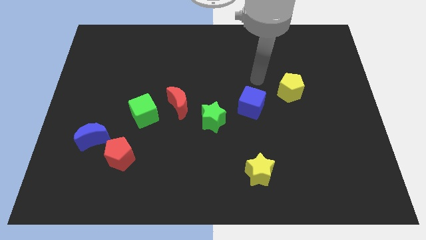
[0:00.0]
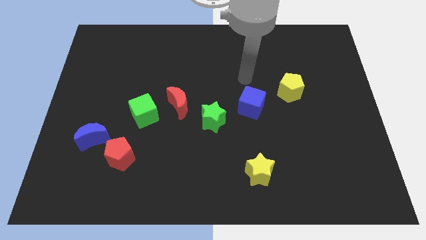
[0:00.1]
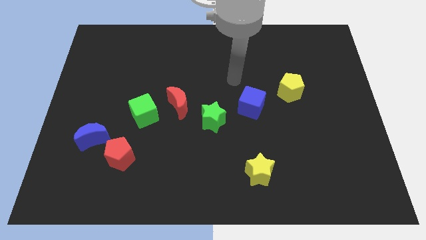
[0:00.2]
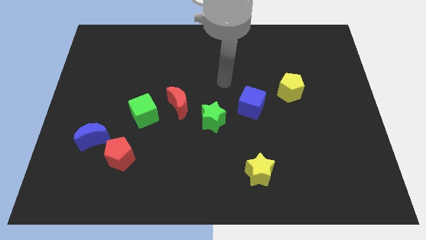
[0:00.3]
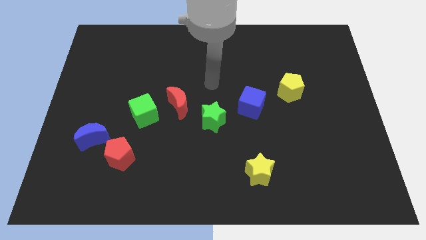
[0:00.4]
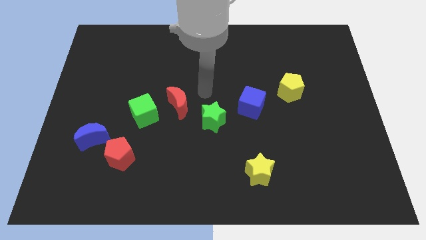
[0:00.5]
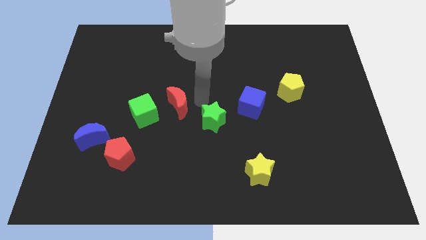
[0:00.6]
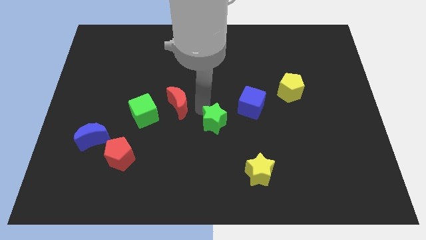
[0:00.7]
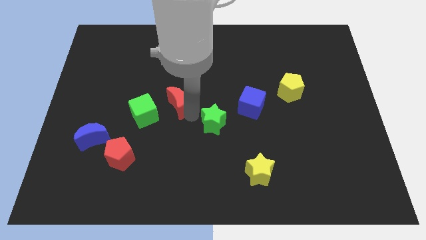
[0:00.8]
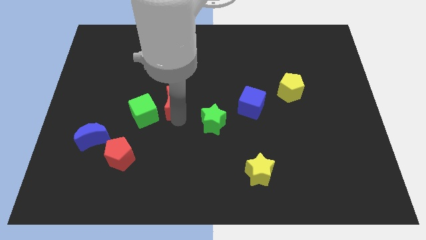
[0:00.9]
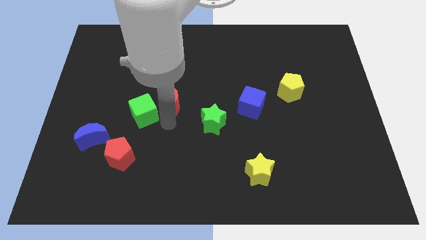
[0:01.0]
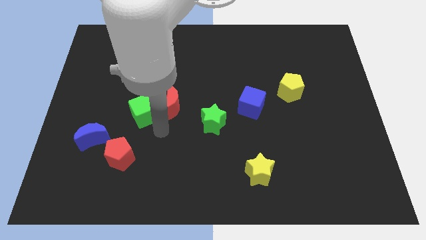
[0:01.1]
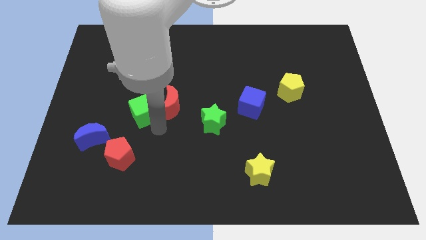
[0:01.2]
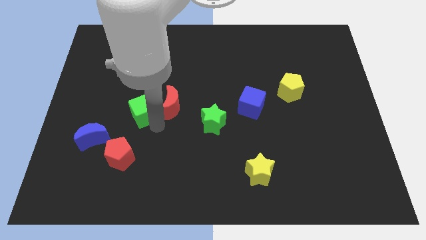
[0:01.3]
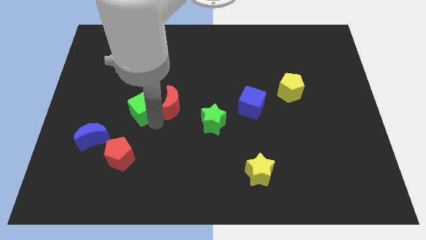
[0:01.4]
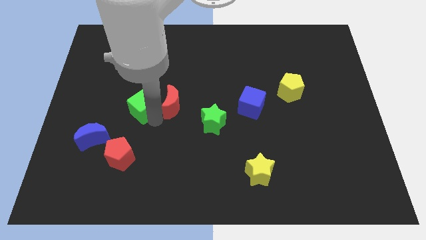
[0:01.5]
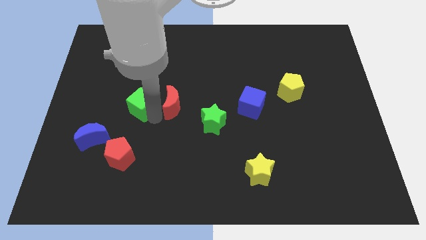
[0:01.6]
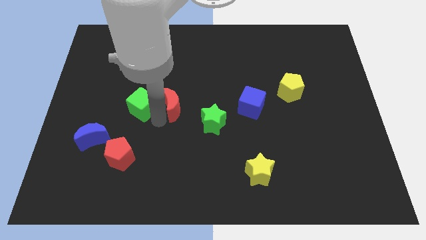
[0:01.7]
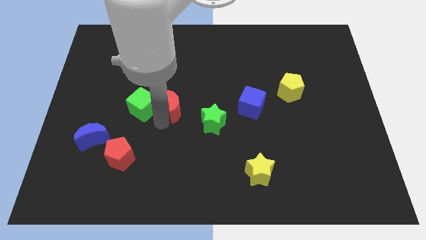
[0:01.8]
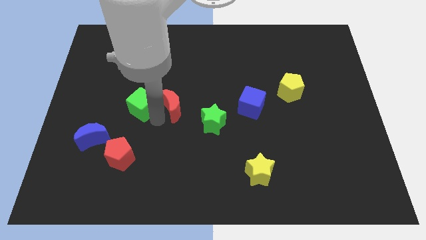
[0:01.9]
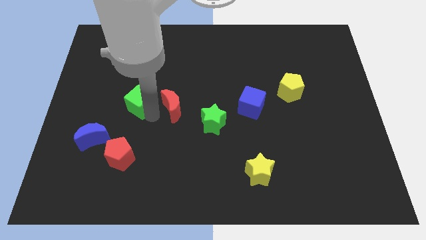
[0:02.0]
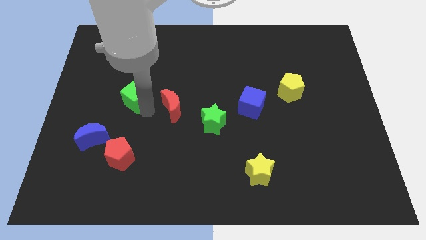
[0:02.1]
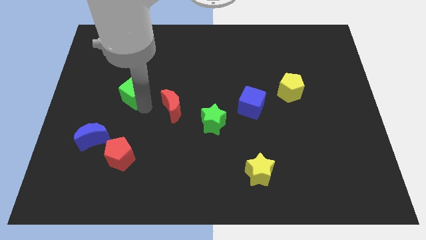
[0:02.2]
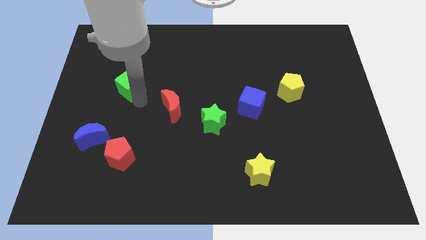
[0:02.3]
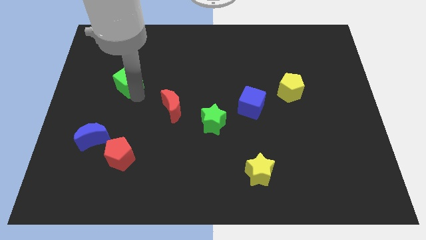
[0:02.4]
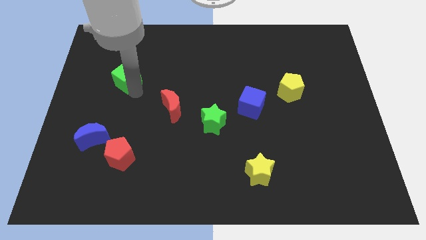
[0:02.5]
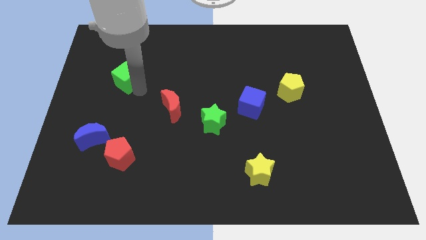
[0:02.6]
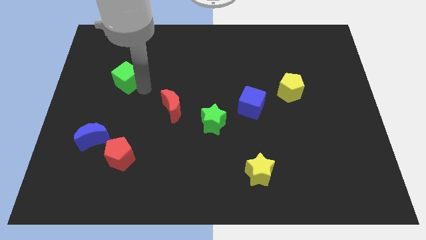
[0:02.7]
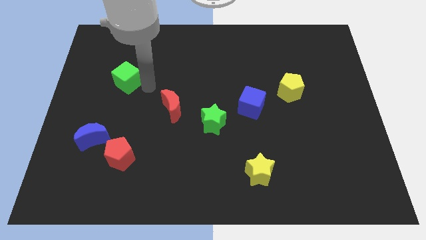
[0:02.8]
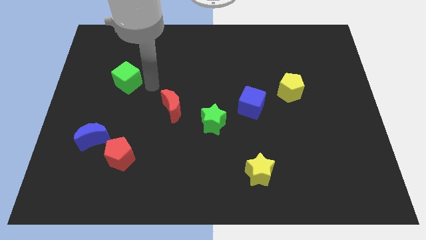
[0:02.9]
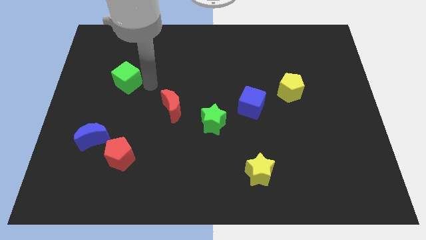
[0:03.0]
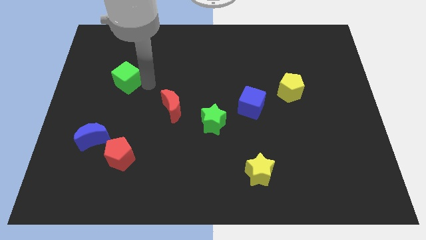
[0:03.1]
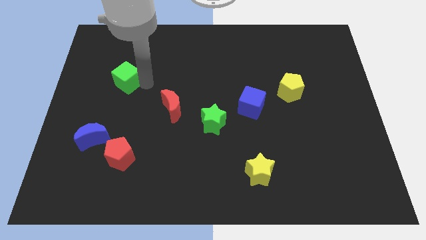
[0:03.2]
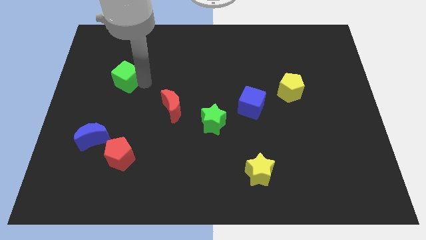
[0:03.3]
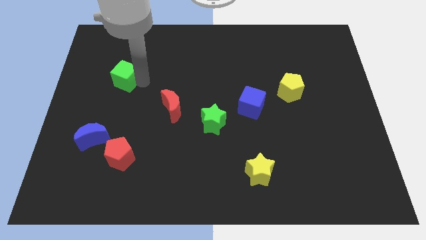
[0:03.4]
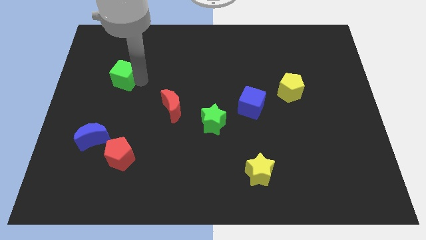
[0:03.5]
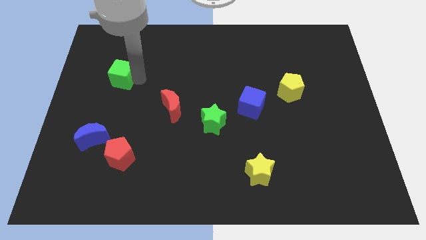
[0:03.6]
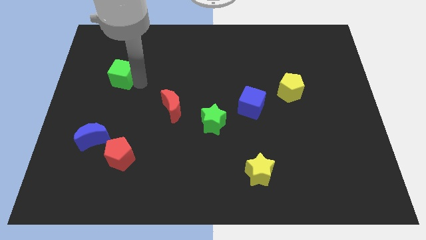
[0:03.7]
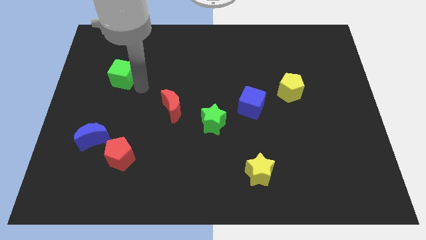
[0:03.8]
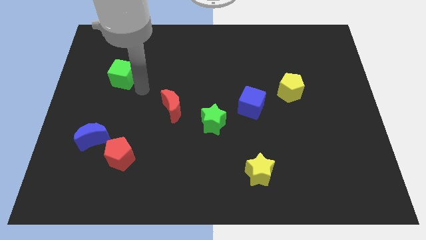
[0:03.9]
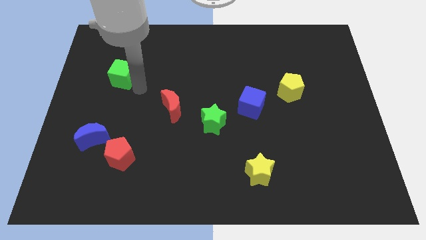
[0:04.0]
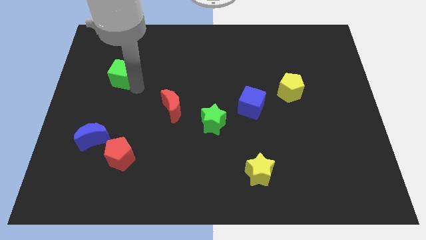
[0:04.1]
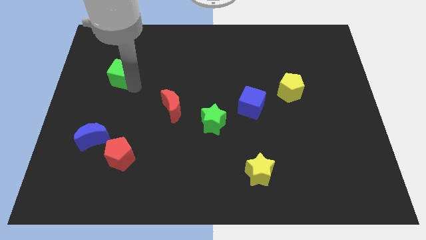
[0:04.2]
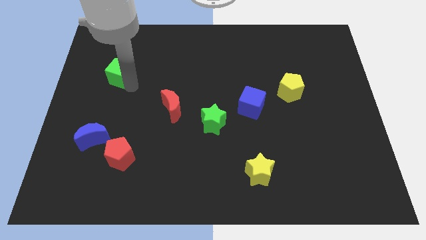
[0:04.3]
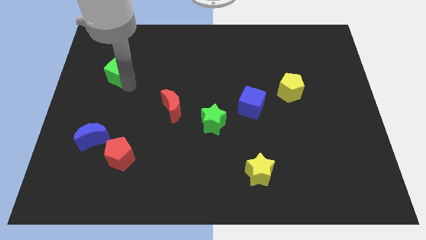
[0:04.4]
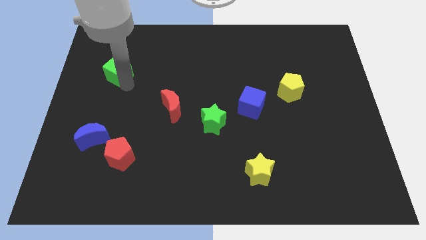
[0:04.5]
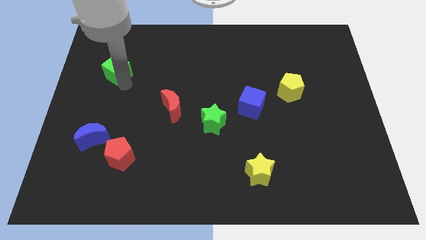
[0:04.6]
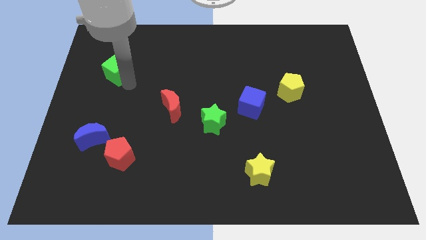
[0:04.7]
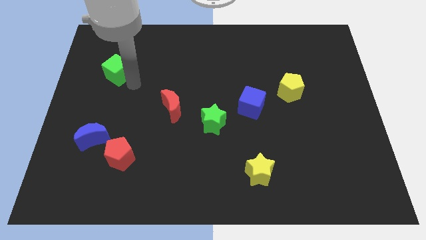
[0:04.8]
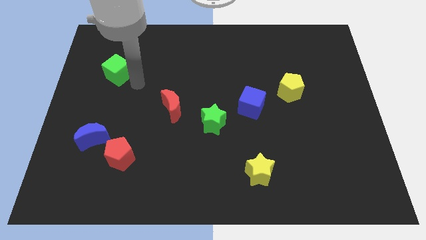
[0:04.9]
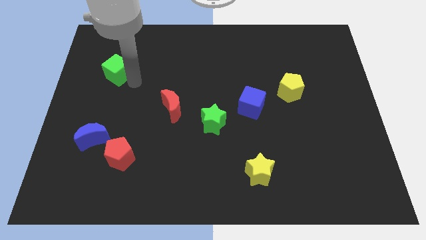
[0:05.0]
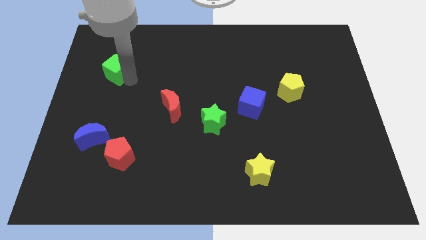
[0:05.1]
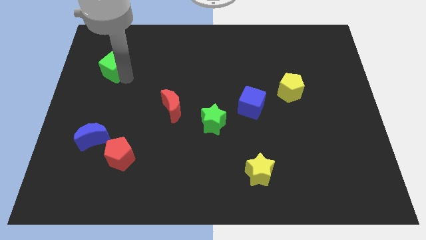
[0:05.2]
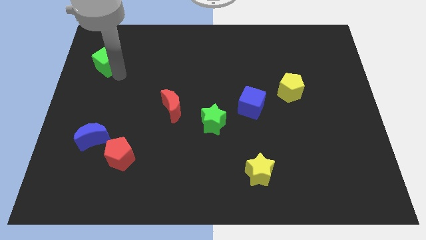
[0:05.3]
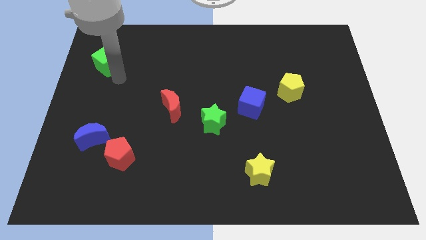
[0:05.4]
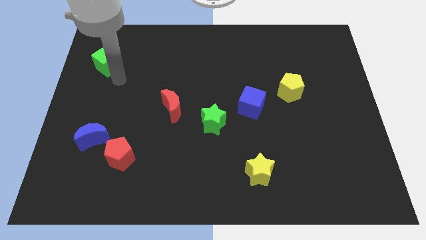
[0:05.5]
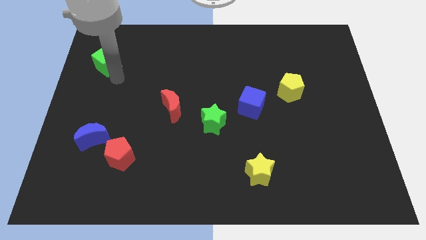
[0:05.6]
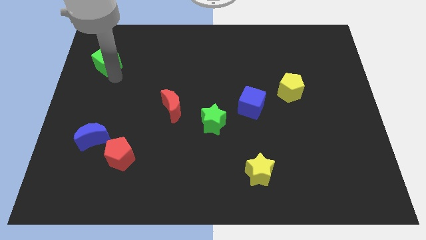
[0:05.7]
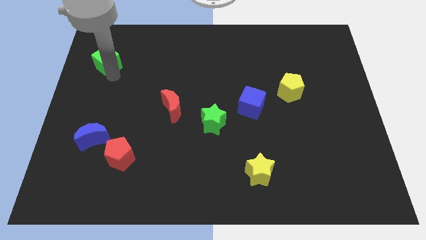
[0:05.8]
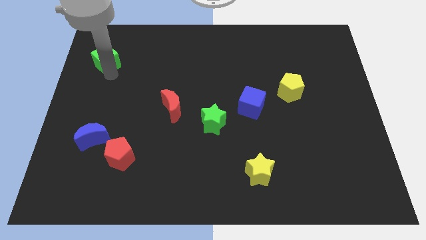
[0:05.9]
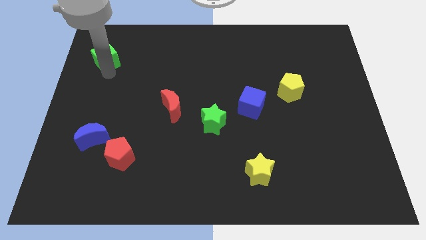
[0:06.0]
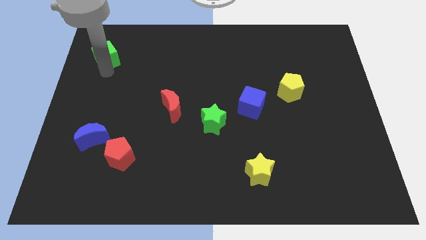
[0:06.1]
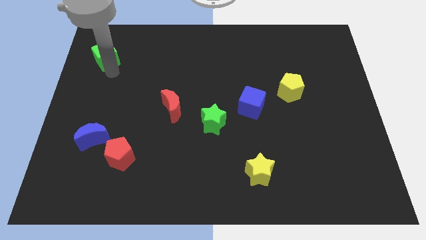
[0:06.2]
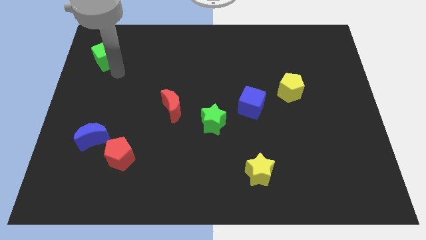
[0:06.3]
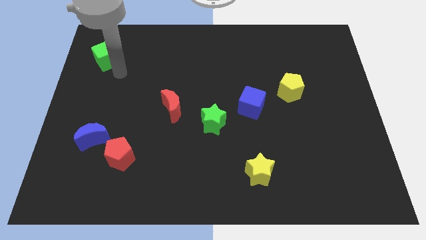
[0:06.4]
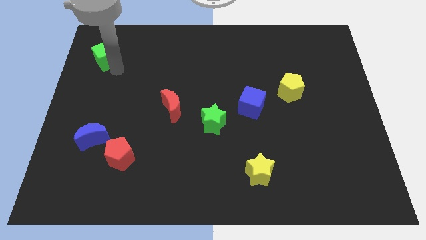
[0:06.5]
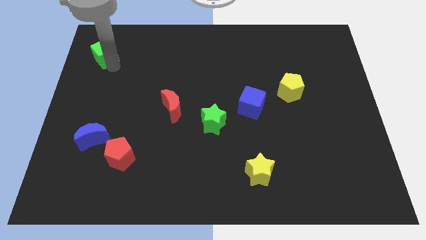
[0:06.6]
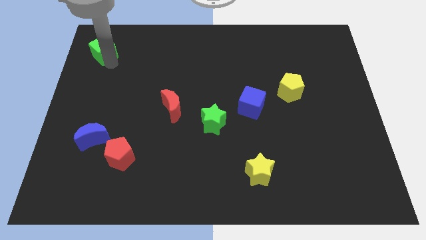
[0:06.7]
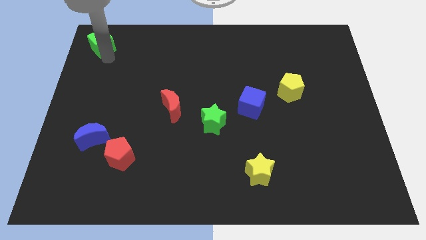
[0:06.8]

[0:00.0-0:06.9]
slide the green cube to the top left corner
